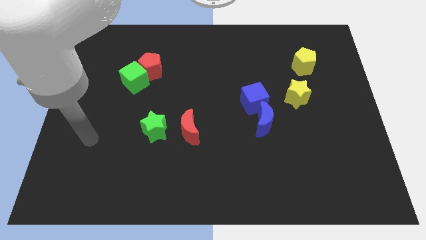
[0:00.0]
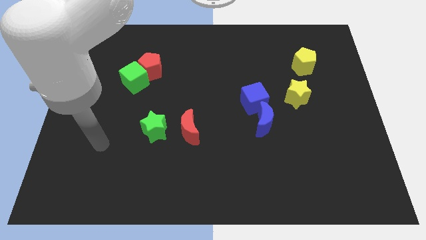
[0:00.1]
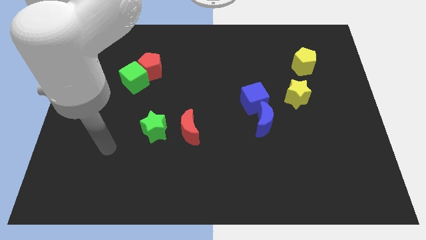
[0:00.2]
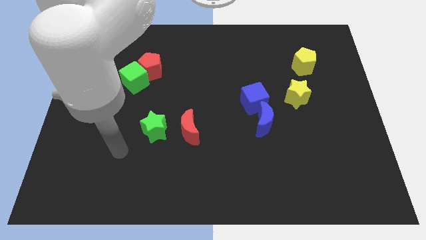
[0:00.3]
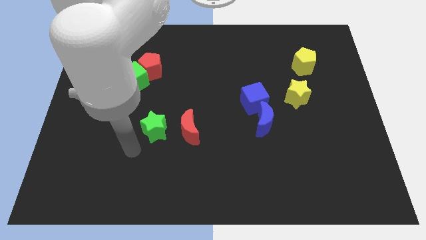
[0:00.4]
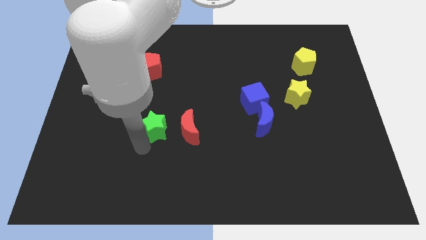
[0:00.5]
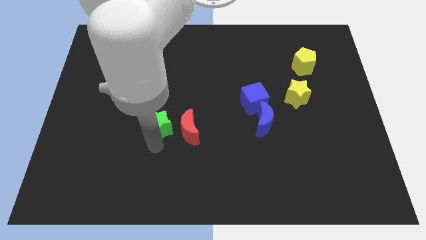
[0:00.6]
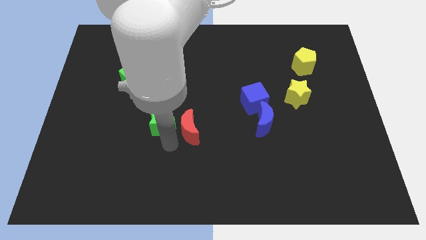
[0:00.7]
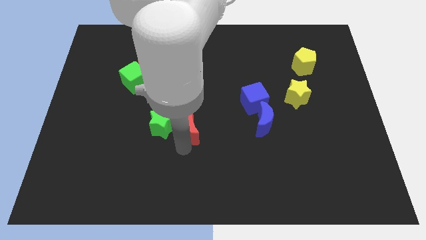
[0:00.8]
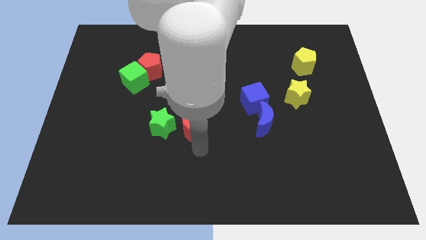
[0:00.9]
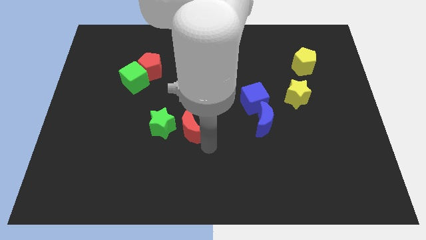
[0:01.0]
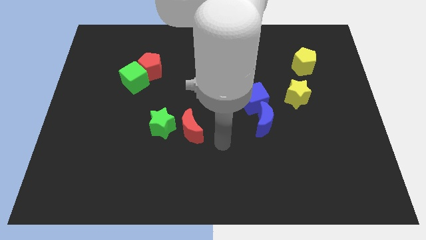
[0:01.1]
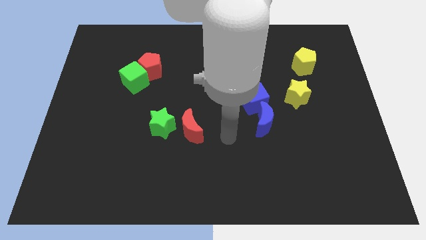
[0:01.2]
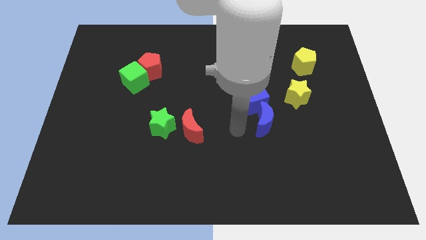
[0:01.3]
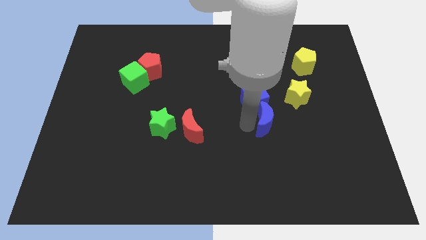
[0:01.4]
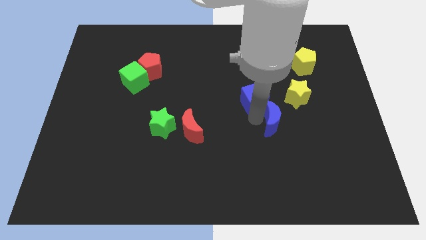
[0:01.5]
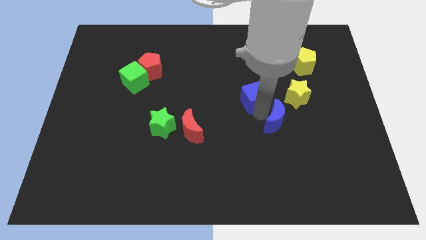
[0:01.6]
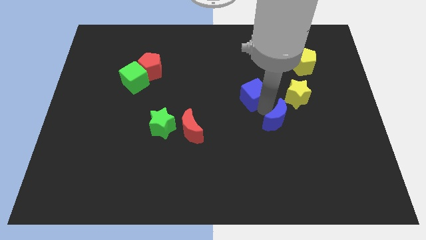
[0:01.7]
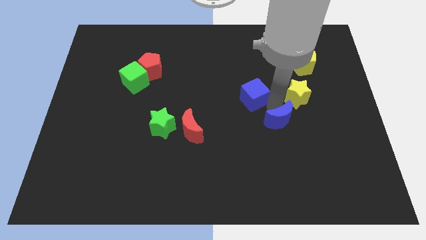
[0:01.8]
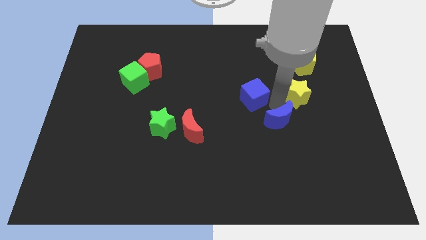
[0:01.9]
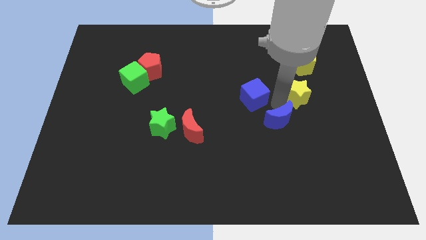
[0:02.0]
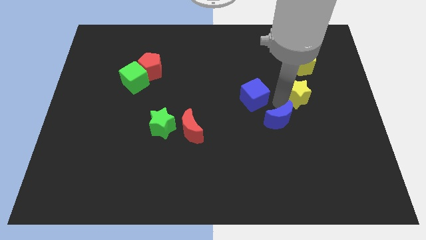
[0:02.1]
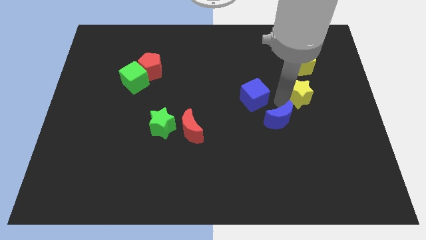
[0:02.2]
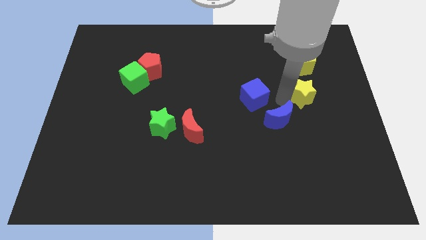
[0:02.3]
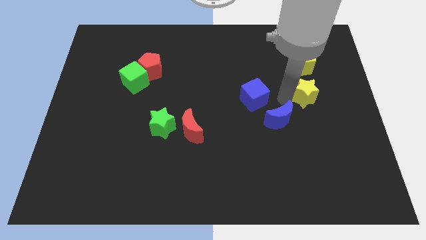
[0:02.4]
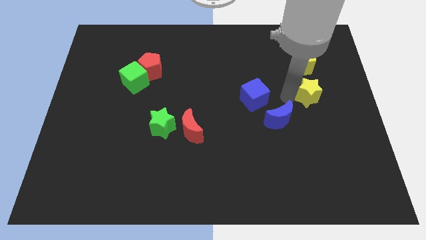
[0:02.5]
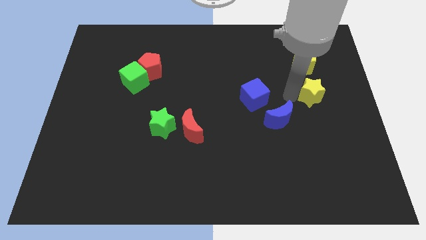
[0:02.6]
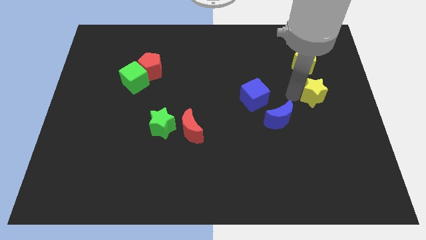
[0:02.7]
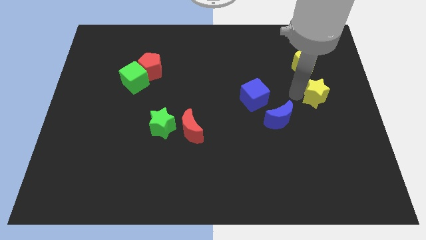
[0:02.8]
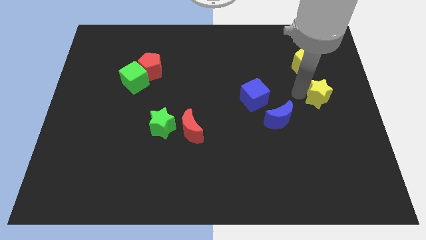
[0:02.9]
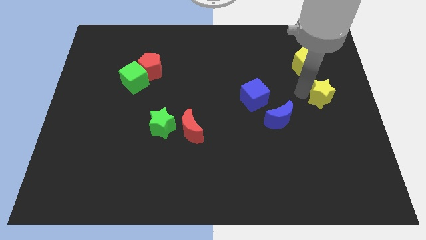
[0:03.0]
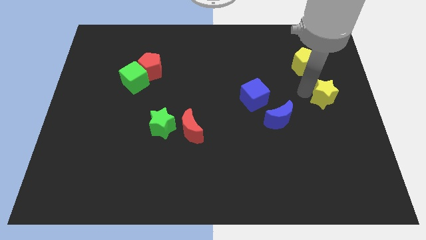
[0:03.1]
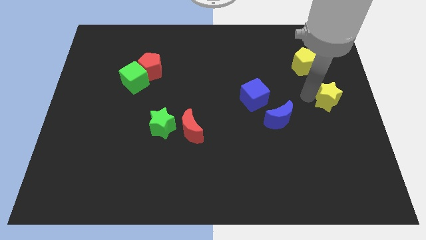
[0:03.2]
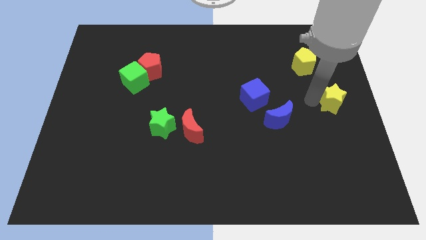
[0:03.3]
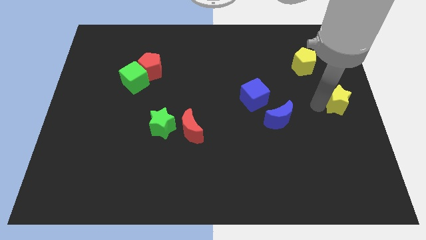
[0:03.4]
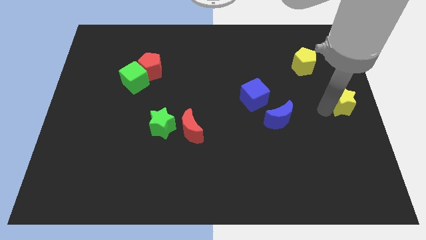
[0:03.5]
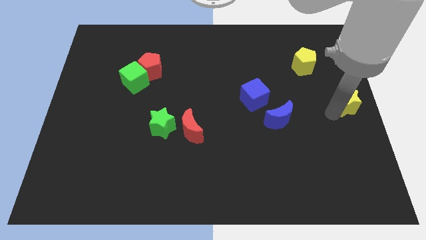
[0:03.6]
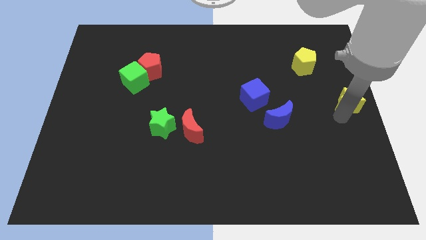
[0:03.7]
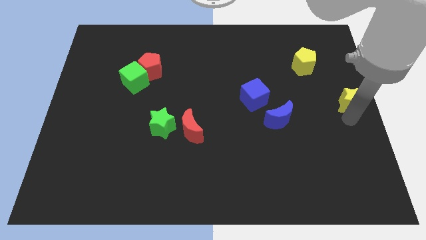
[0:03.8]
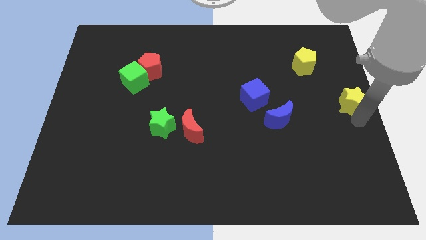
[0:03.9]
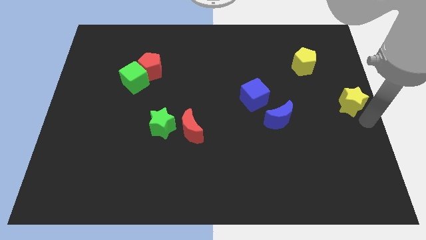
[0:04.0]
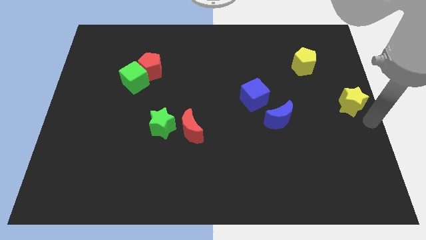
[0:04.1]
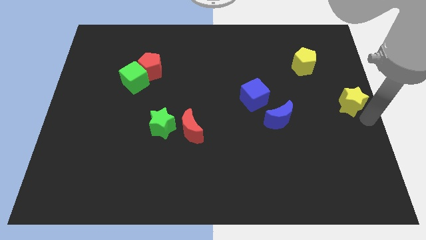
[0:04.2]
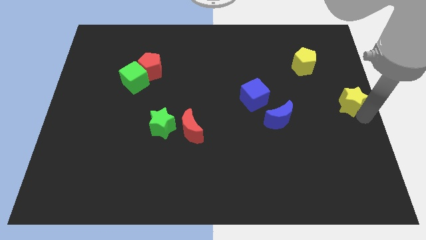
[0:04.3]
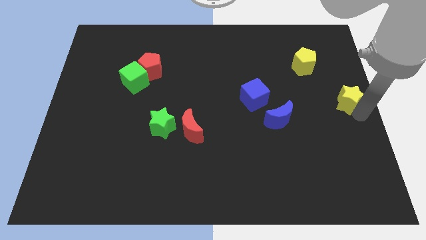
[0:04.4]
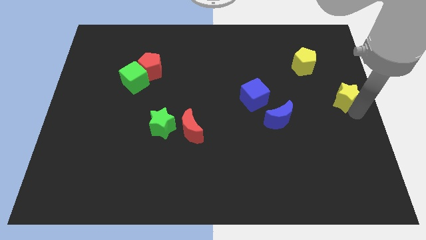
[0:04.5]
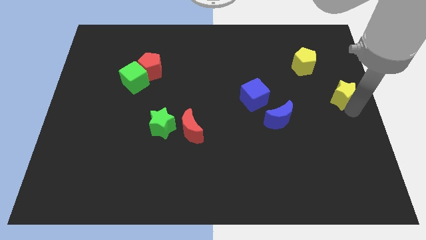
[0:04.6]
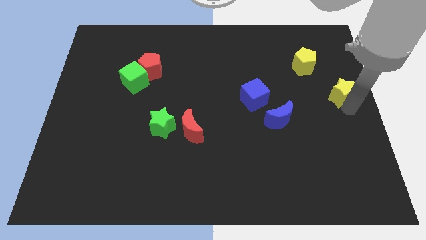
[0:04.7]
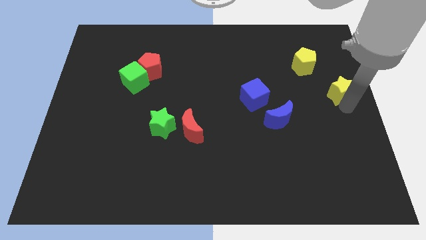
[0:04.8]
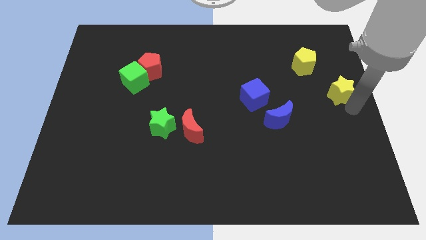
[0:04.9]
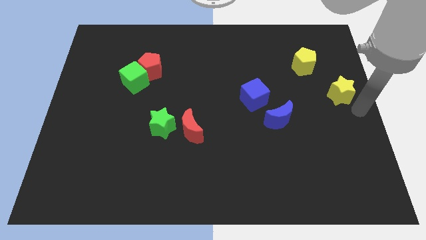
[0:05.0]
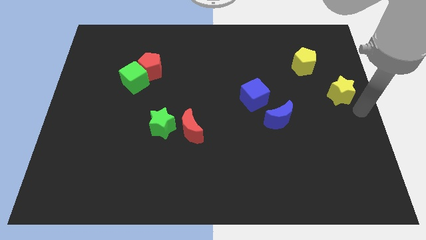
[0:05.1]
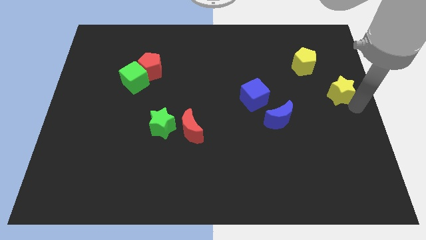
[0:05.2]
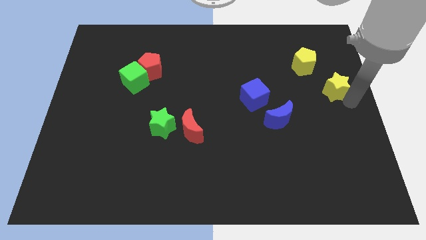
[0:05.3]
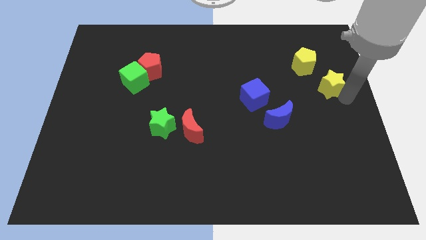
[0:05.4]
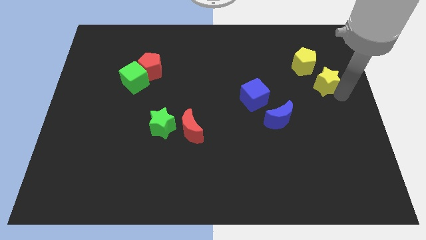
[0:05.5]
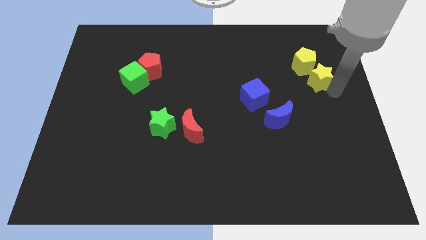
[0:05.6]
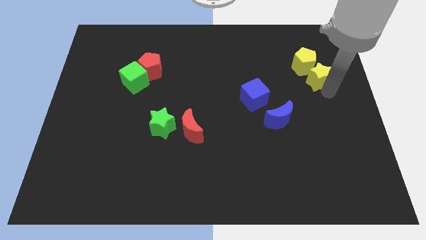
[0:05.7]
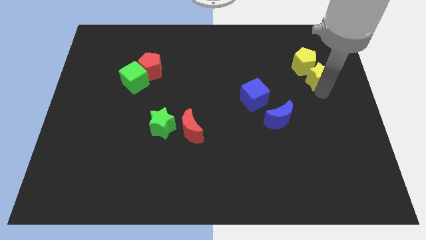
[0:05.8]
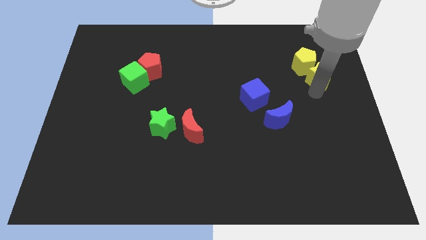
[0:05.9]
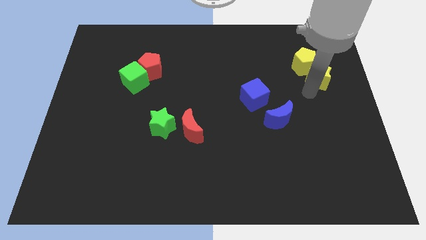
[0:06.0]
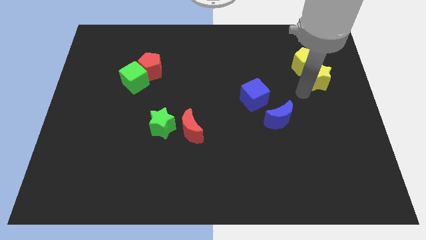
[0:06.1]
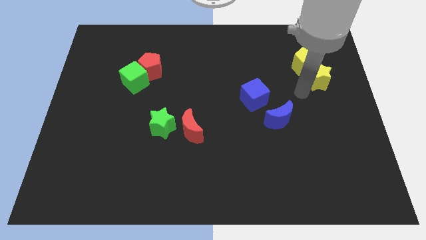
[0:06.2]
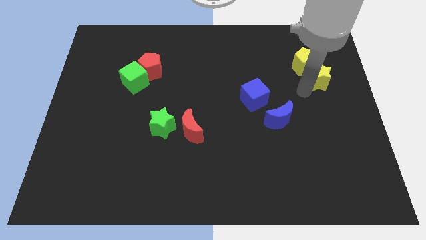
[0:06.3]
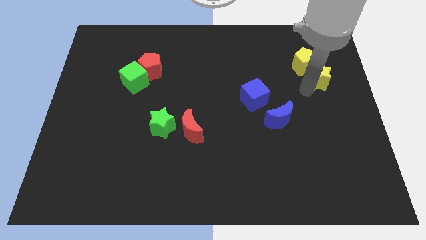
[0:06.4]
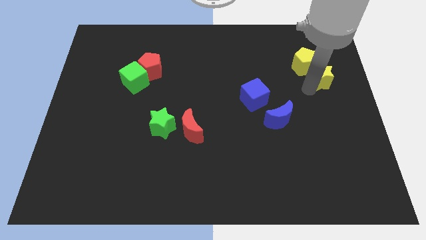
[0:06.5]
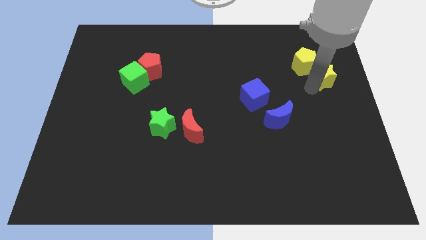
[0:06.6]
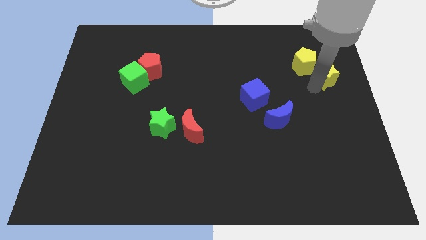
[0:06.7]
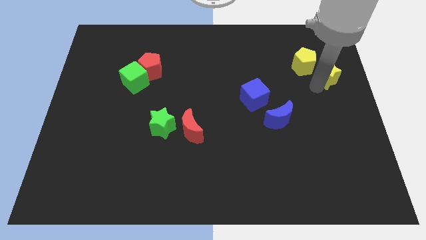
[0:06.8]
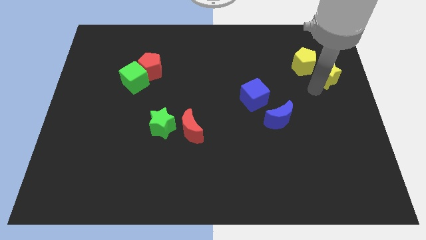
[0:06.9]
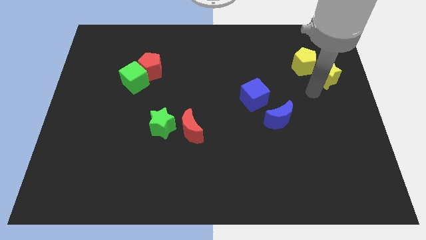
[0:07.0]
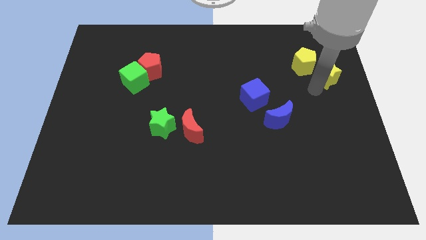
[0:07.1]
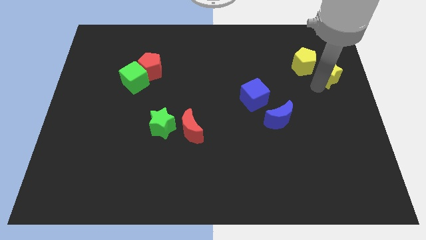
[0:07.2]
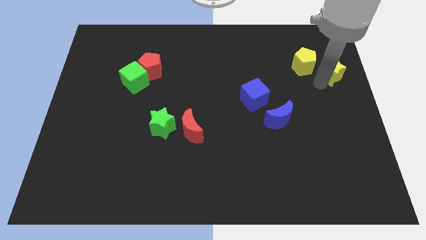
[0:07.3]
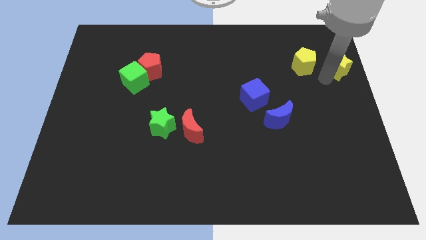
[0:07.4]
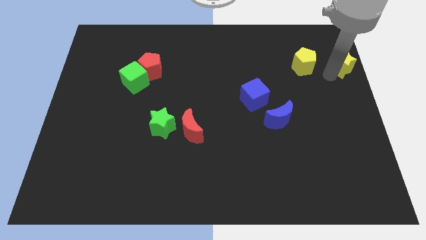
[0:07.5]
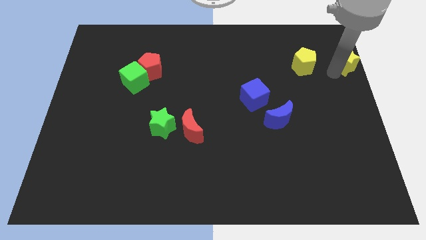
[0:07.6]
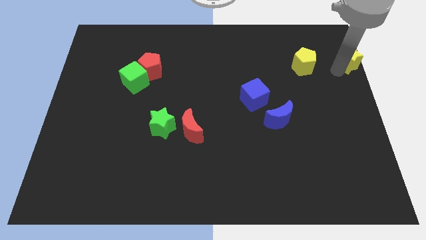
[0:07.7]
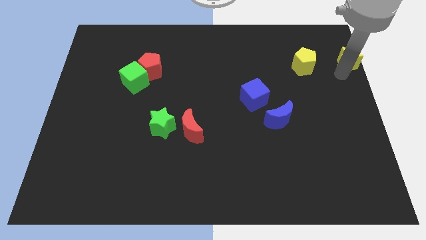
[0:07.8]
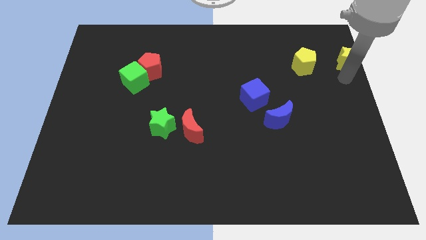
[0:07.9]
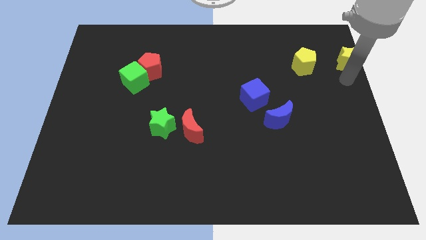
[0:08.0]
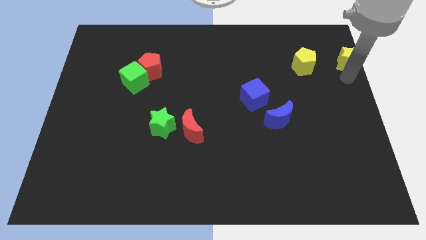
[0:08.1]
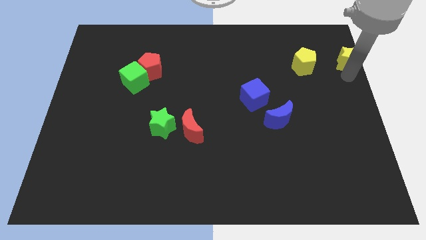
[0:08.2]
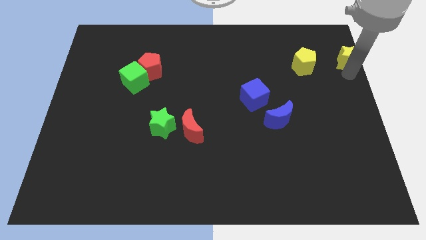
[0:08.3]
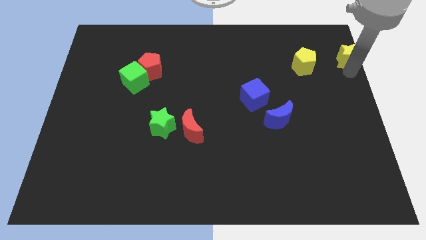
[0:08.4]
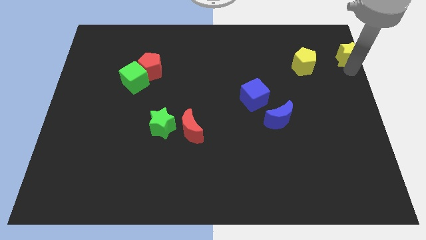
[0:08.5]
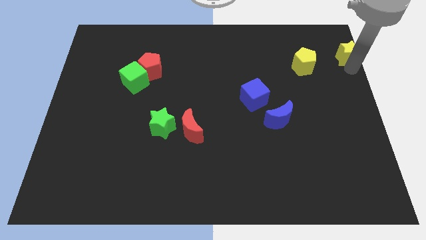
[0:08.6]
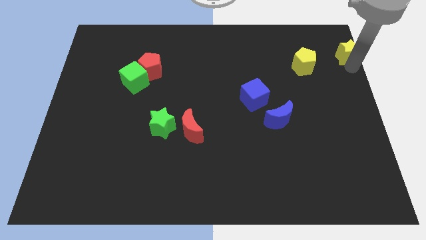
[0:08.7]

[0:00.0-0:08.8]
put the yellow star to the top right of the board
